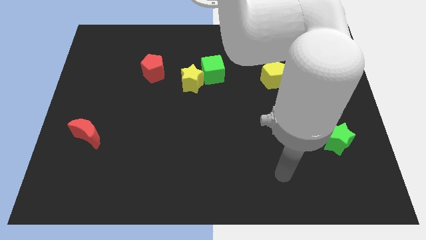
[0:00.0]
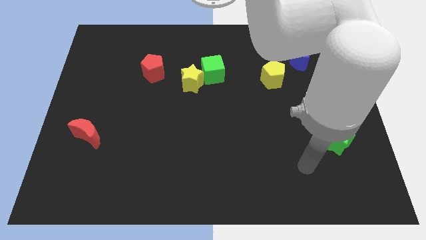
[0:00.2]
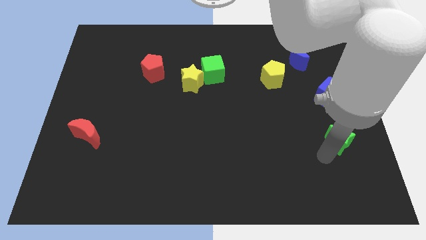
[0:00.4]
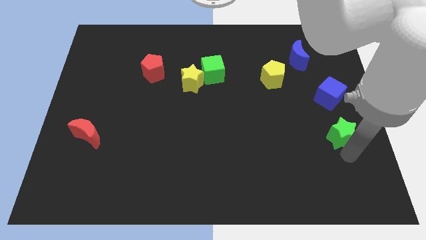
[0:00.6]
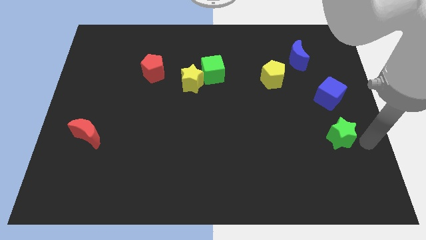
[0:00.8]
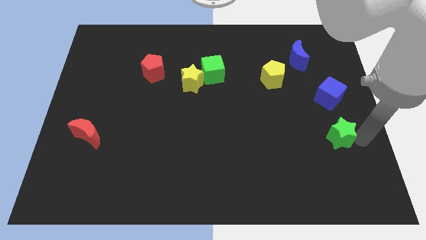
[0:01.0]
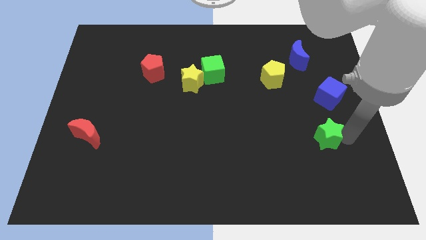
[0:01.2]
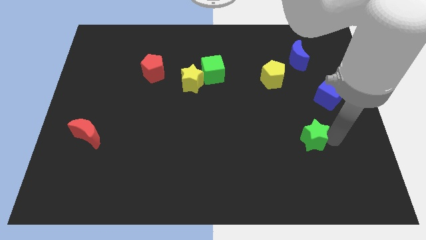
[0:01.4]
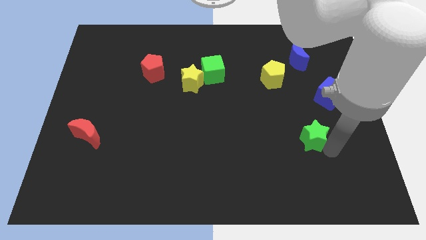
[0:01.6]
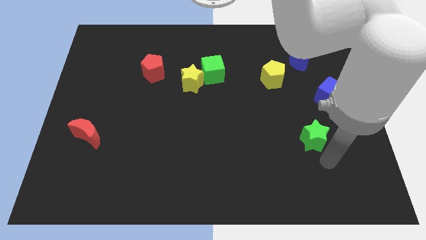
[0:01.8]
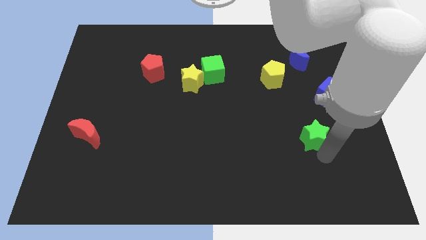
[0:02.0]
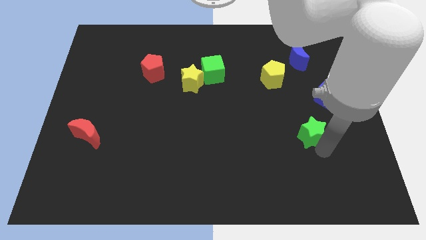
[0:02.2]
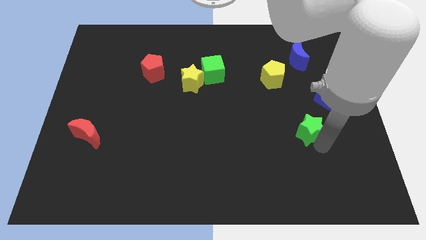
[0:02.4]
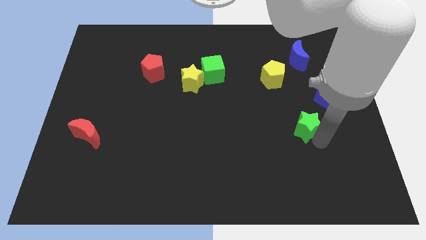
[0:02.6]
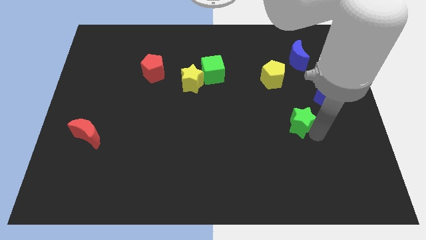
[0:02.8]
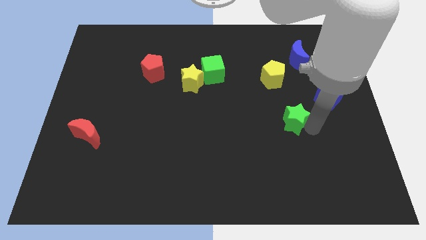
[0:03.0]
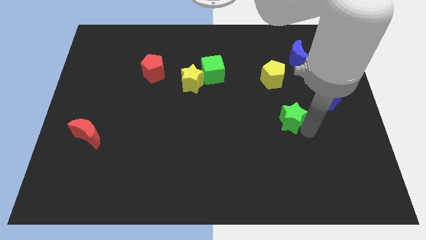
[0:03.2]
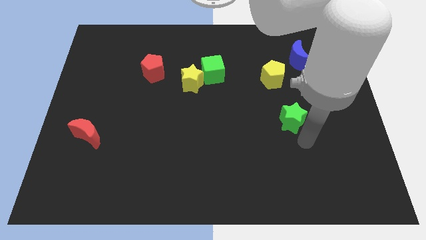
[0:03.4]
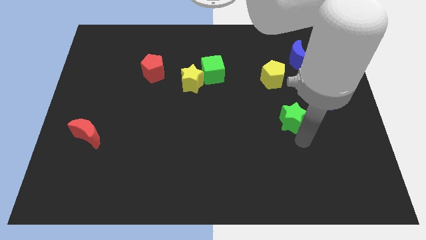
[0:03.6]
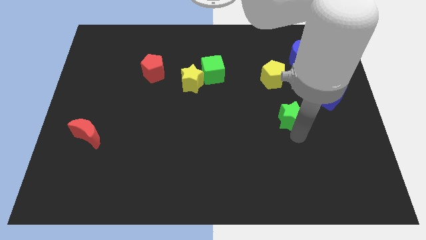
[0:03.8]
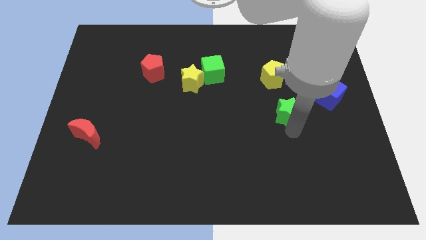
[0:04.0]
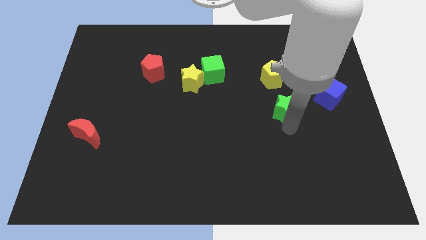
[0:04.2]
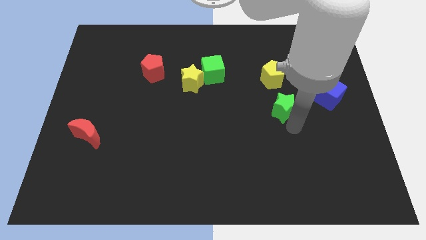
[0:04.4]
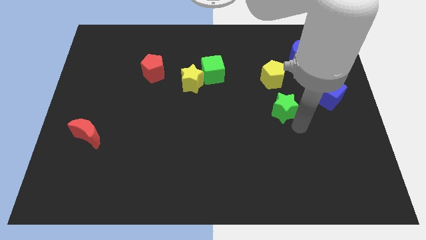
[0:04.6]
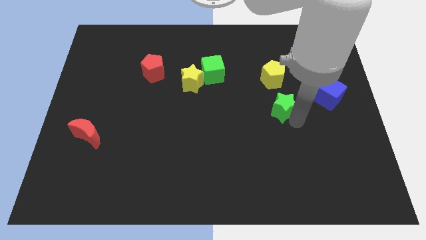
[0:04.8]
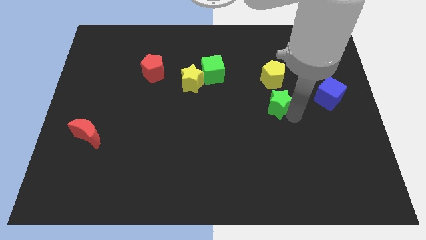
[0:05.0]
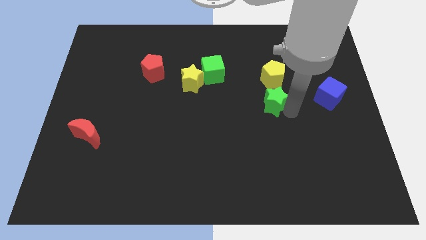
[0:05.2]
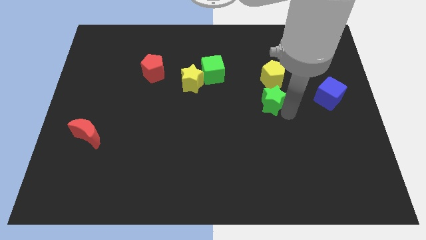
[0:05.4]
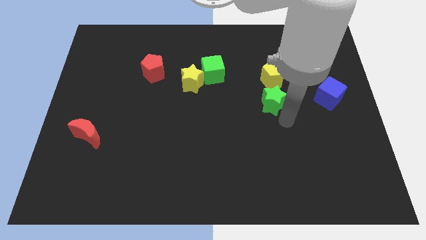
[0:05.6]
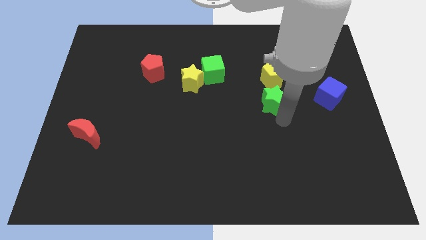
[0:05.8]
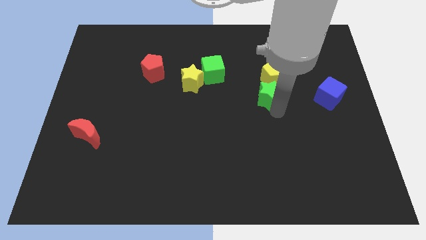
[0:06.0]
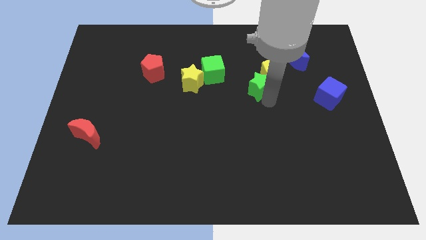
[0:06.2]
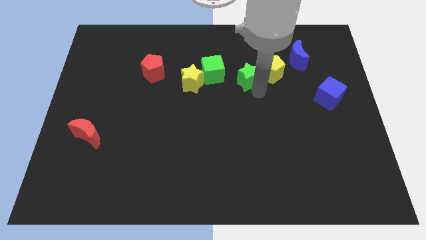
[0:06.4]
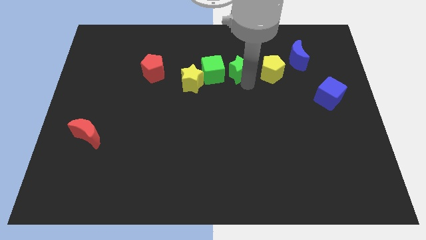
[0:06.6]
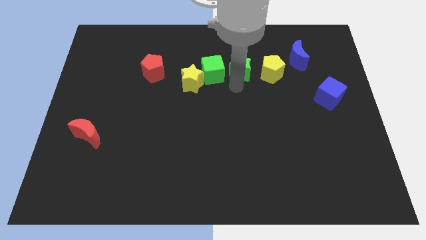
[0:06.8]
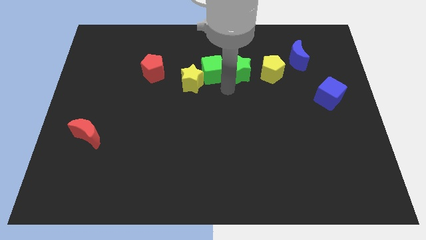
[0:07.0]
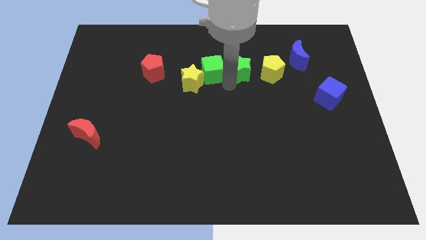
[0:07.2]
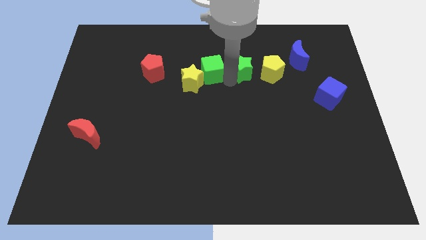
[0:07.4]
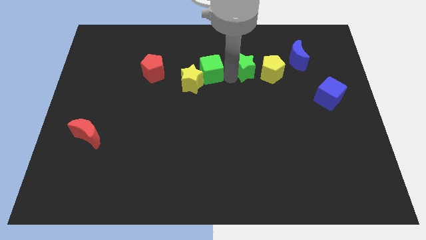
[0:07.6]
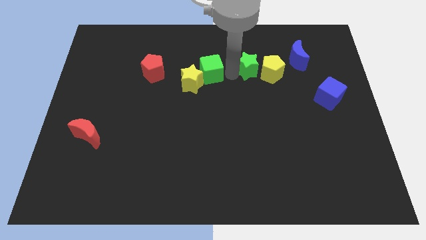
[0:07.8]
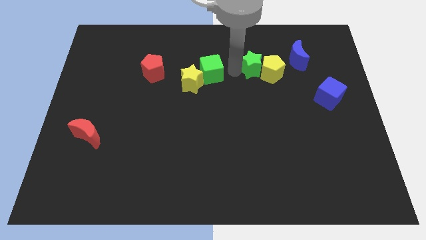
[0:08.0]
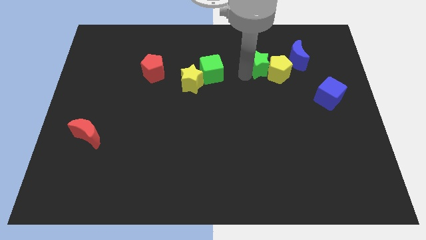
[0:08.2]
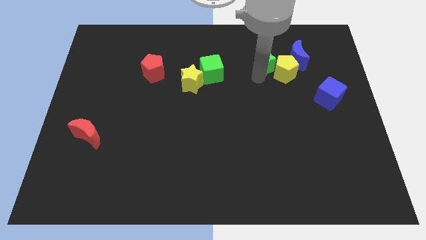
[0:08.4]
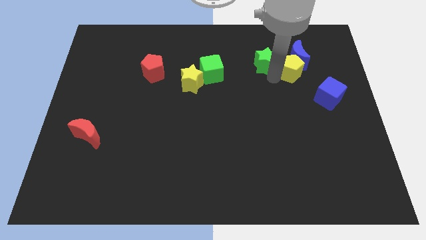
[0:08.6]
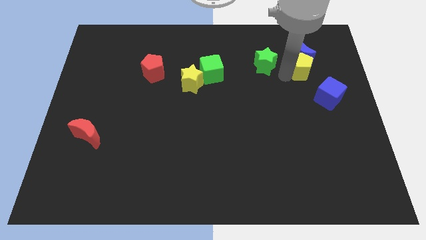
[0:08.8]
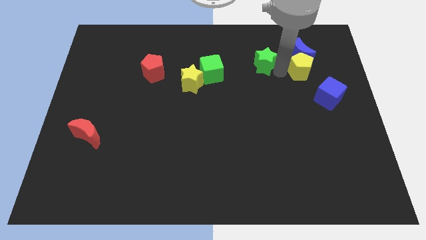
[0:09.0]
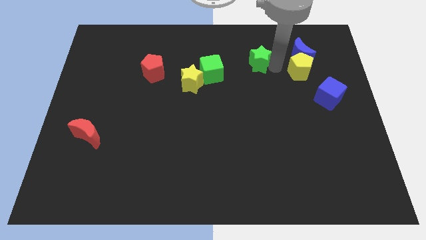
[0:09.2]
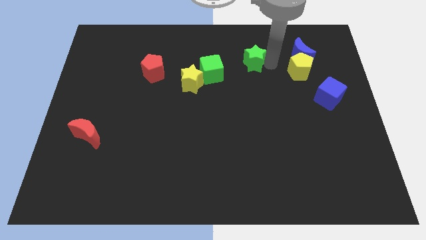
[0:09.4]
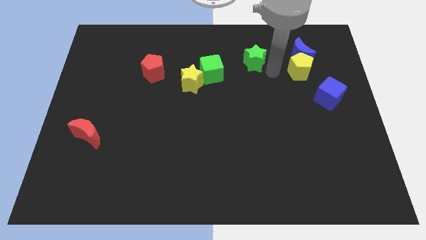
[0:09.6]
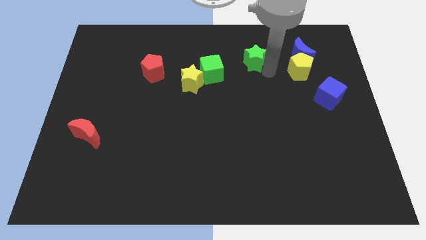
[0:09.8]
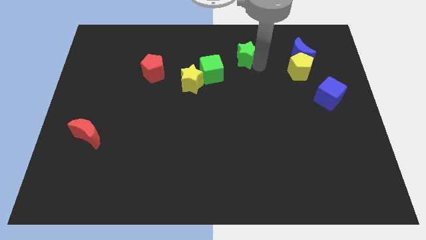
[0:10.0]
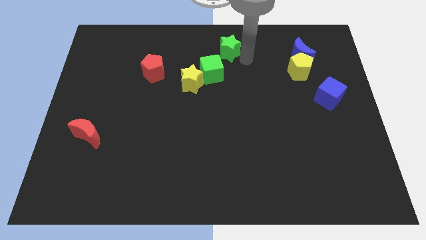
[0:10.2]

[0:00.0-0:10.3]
push the green star to the top side

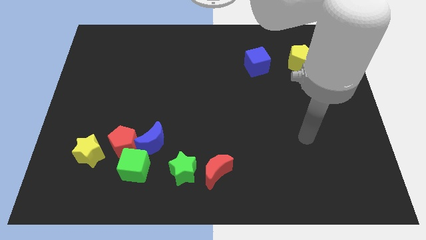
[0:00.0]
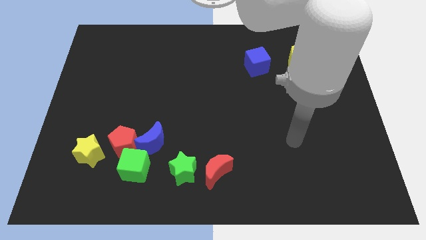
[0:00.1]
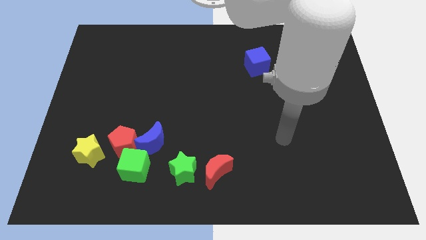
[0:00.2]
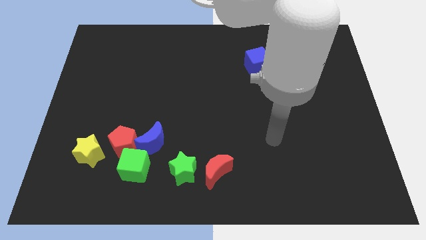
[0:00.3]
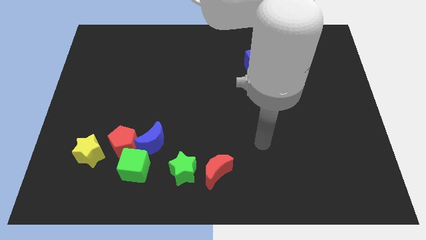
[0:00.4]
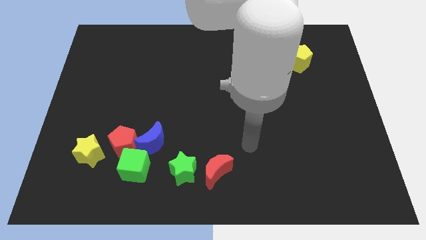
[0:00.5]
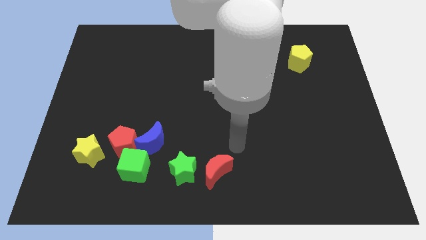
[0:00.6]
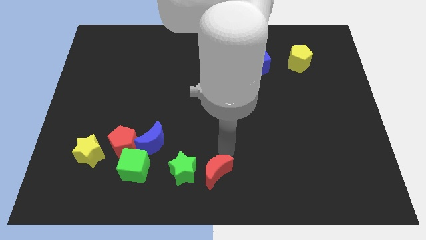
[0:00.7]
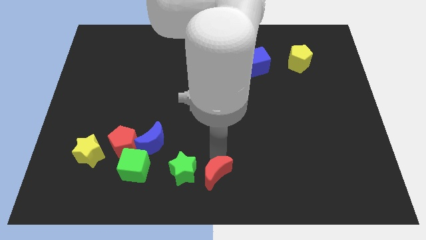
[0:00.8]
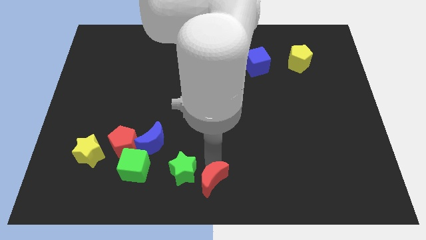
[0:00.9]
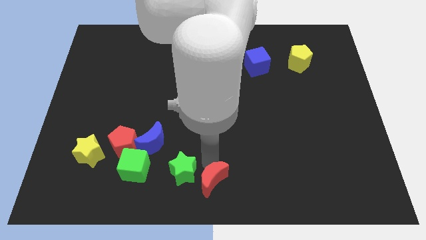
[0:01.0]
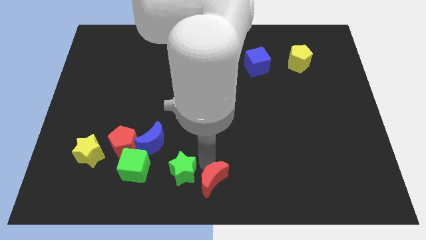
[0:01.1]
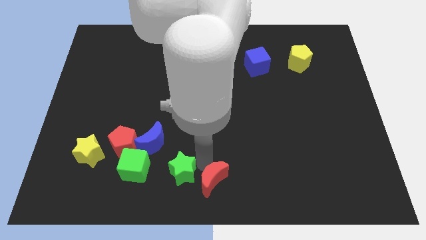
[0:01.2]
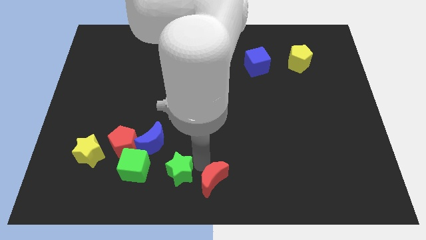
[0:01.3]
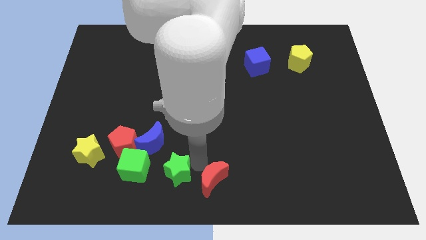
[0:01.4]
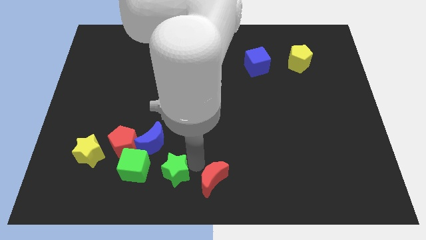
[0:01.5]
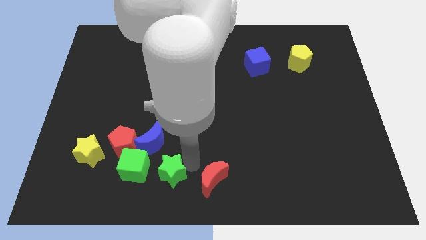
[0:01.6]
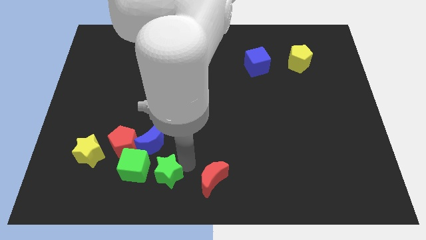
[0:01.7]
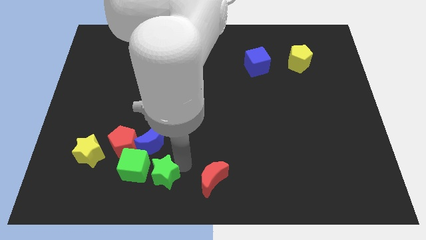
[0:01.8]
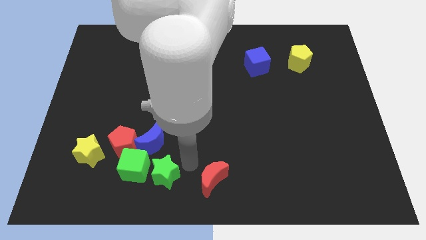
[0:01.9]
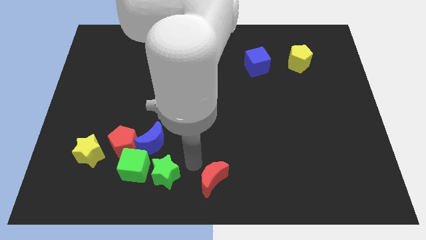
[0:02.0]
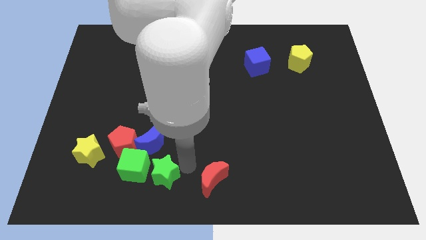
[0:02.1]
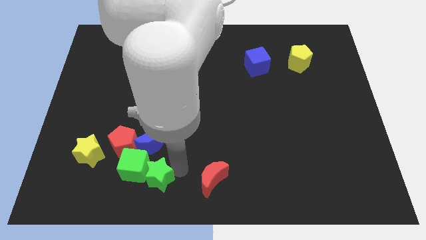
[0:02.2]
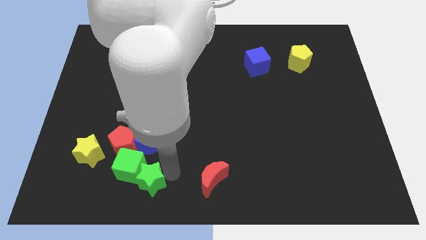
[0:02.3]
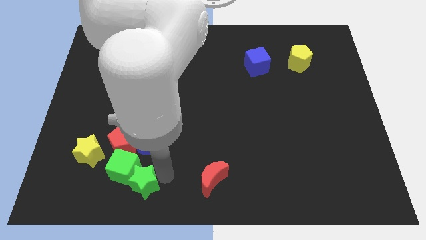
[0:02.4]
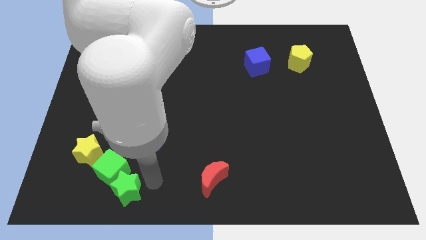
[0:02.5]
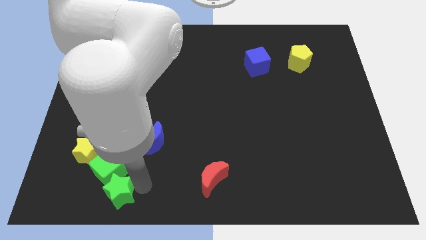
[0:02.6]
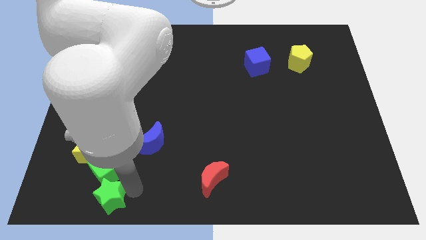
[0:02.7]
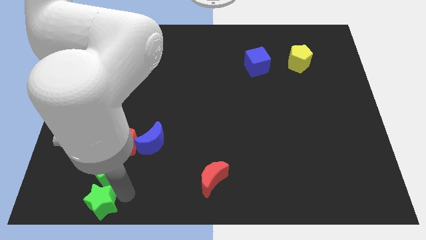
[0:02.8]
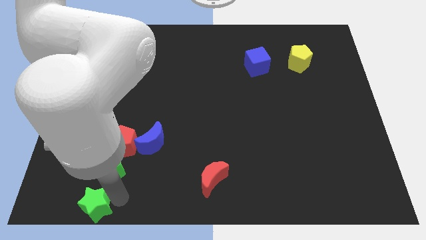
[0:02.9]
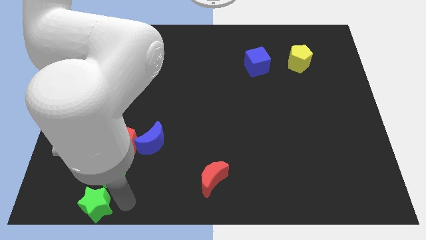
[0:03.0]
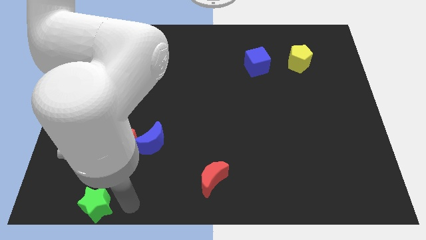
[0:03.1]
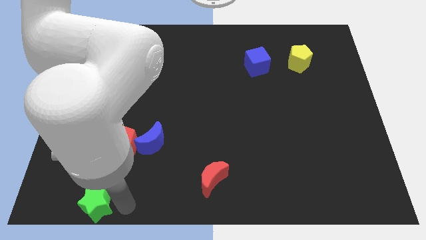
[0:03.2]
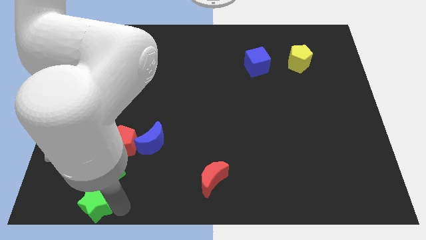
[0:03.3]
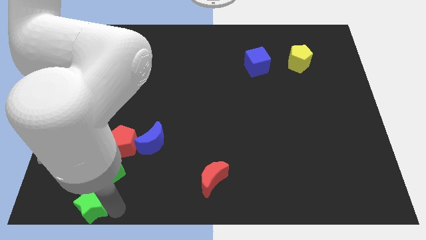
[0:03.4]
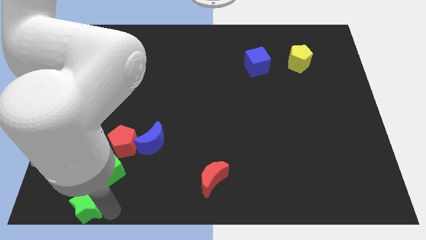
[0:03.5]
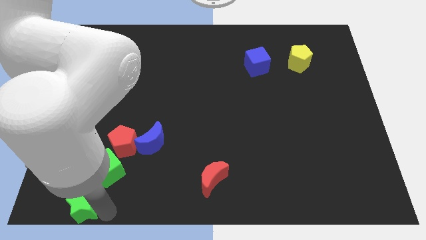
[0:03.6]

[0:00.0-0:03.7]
slide the green star to the lower left corner
